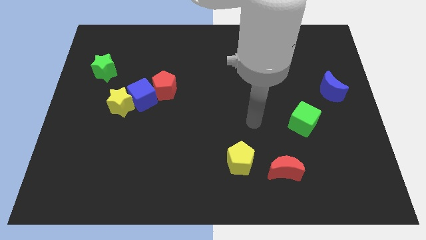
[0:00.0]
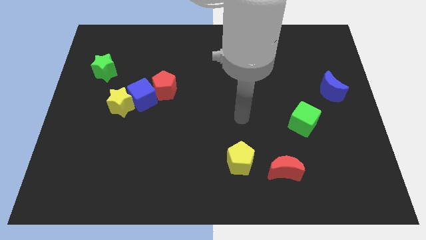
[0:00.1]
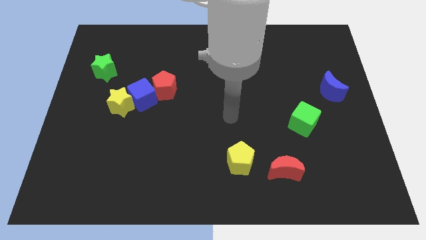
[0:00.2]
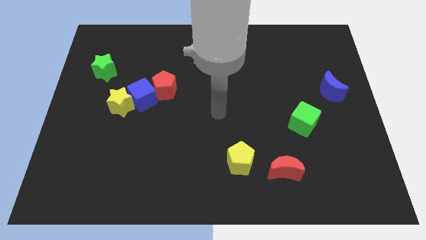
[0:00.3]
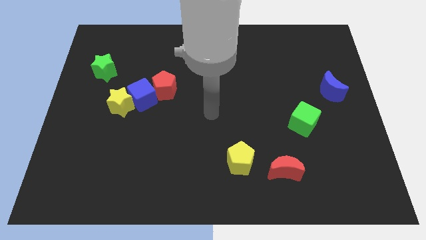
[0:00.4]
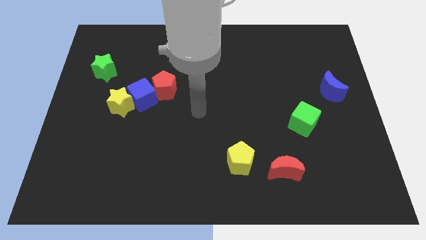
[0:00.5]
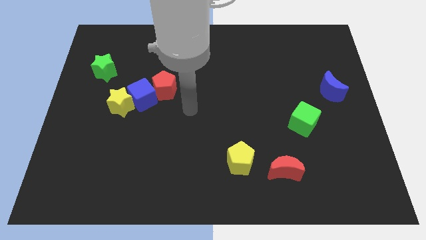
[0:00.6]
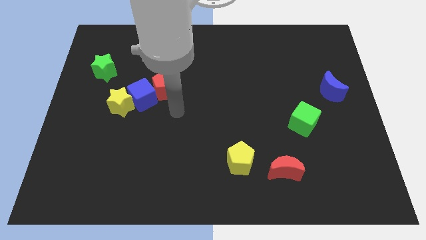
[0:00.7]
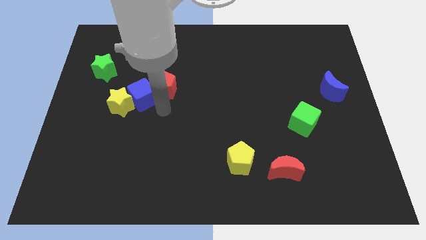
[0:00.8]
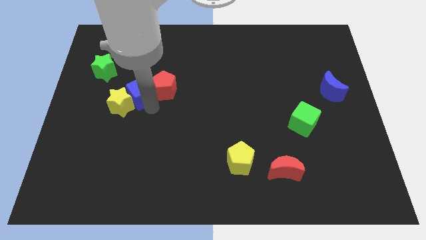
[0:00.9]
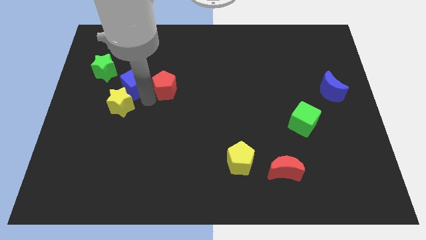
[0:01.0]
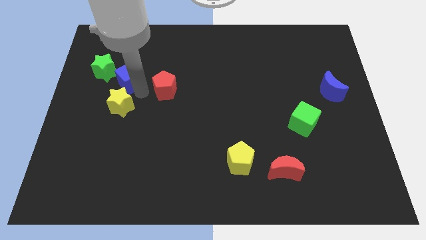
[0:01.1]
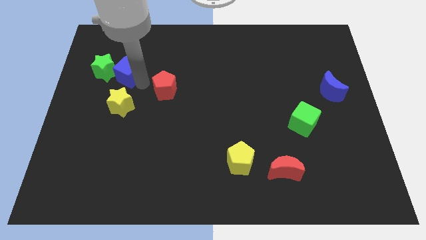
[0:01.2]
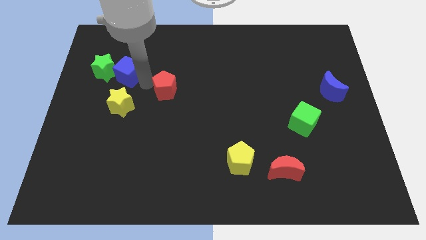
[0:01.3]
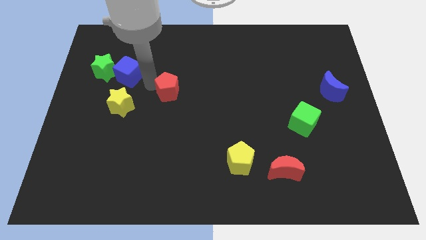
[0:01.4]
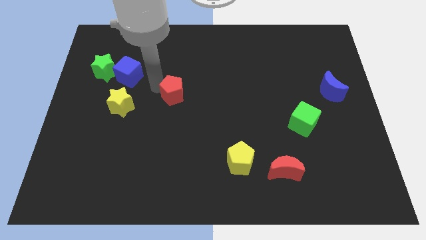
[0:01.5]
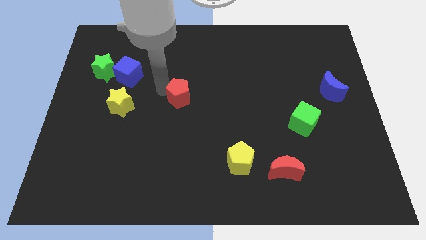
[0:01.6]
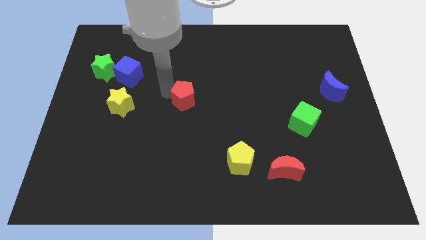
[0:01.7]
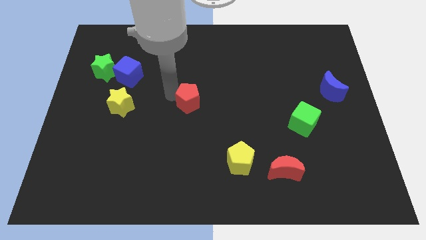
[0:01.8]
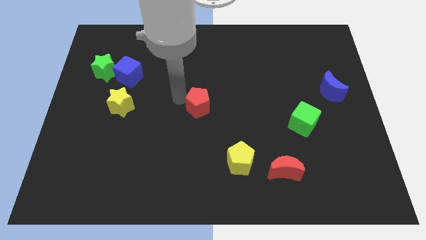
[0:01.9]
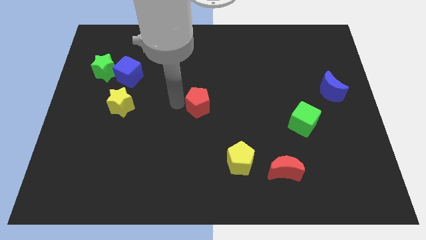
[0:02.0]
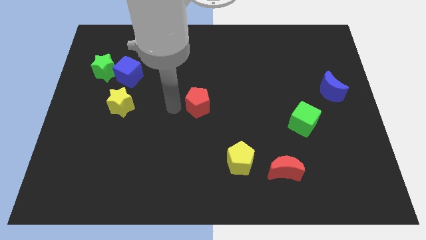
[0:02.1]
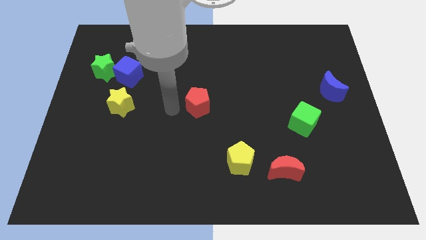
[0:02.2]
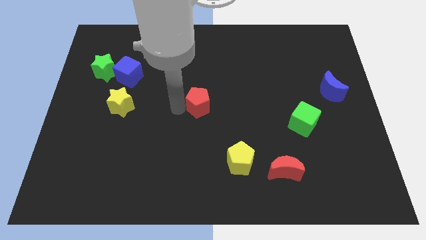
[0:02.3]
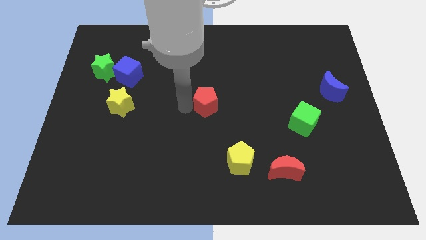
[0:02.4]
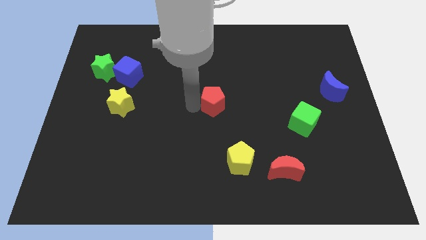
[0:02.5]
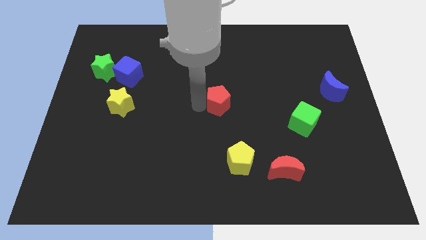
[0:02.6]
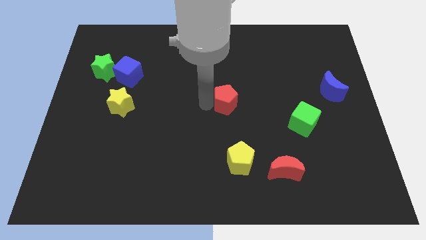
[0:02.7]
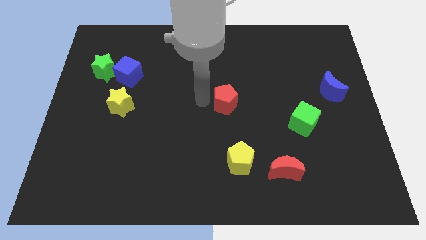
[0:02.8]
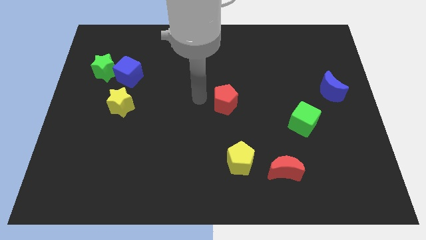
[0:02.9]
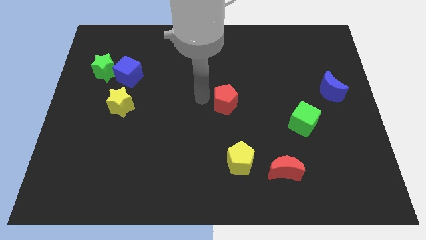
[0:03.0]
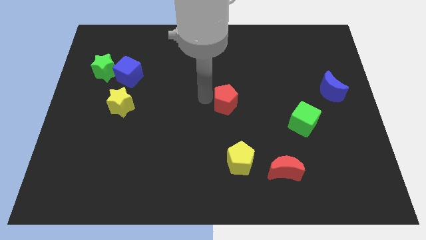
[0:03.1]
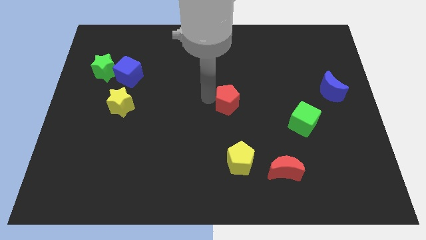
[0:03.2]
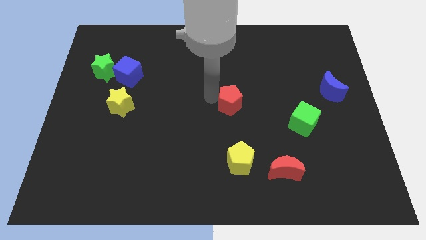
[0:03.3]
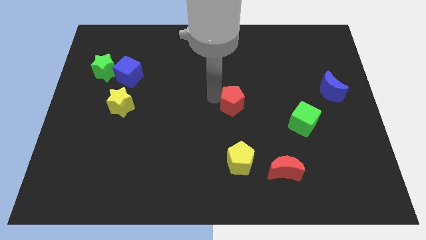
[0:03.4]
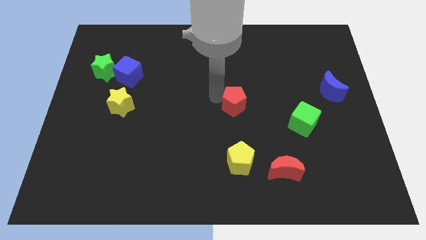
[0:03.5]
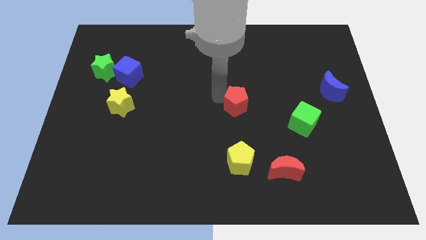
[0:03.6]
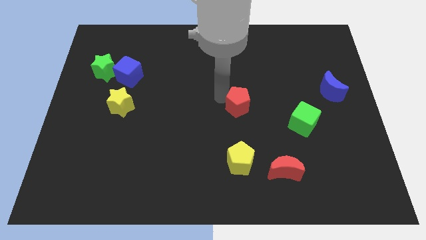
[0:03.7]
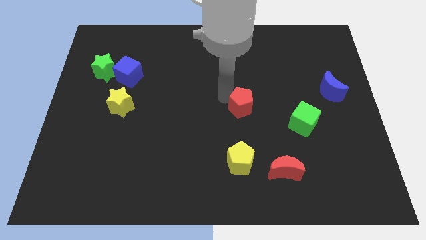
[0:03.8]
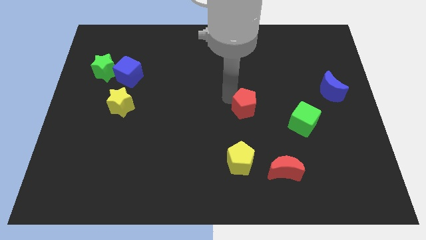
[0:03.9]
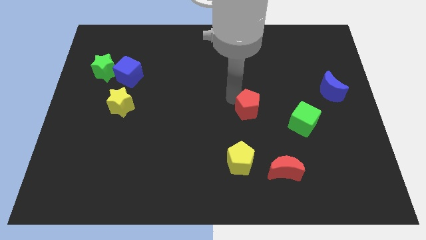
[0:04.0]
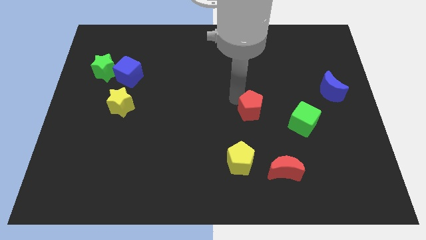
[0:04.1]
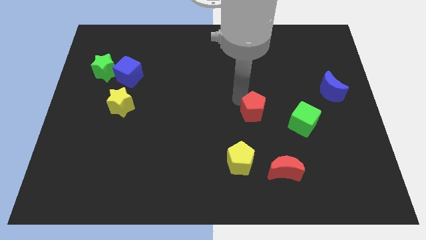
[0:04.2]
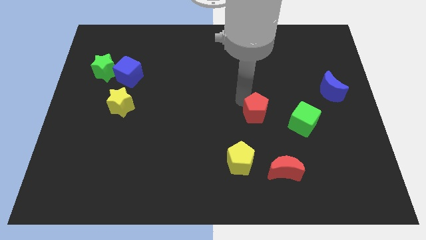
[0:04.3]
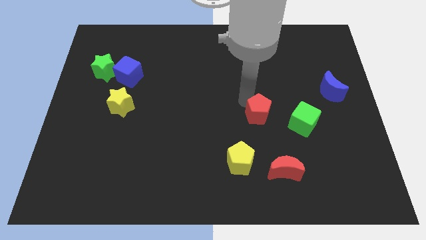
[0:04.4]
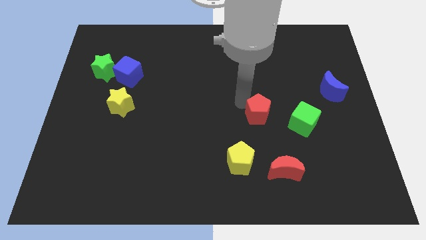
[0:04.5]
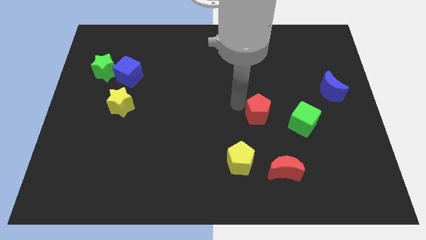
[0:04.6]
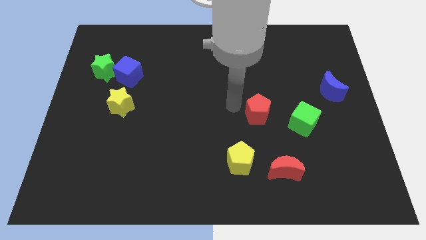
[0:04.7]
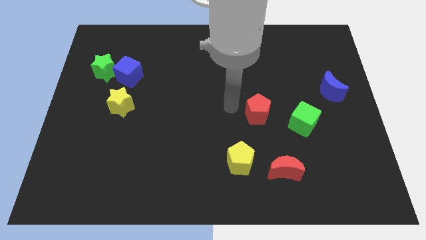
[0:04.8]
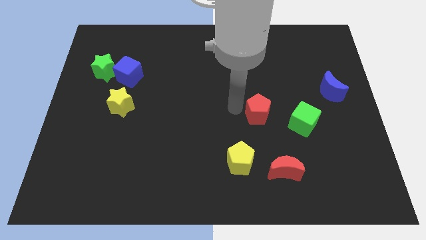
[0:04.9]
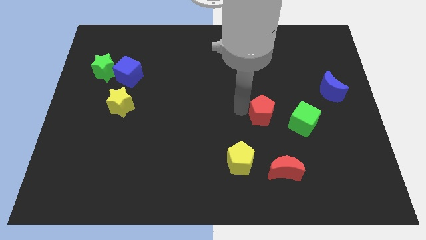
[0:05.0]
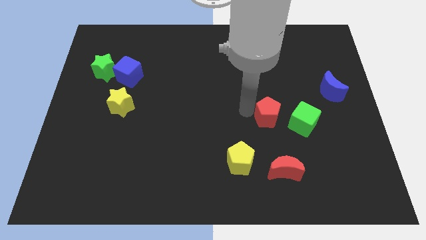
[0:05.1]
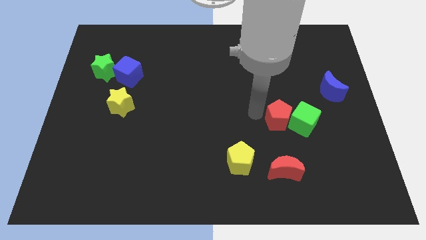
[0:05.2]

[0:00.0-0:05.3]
slide the red pentagon towards the green cube

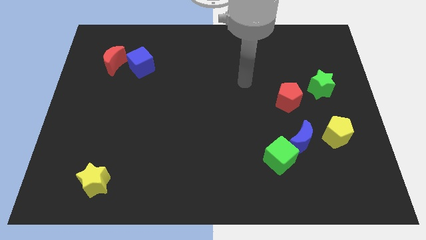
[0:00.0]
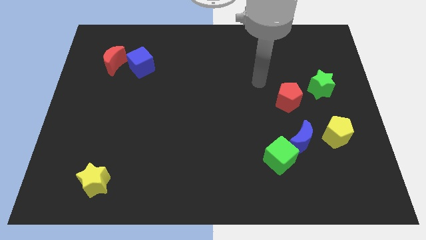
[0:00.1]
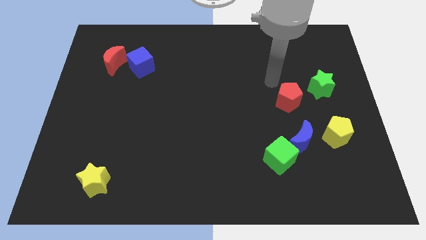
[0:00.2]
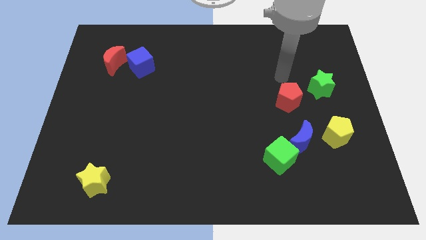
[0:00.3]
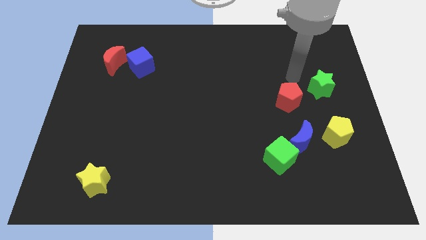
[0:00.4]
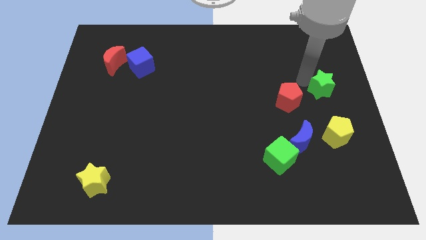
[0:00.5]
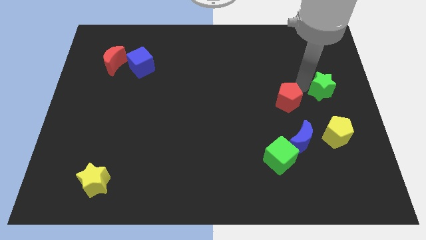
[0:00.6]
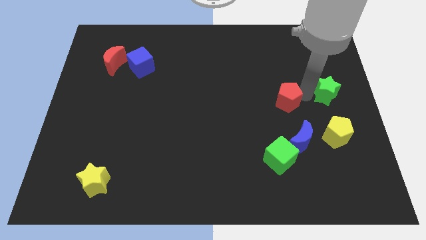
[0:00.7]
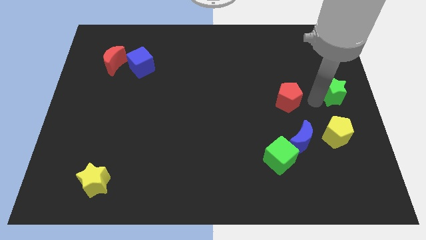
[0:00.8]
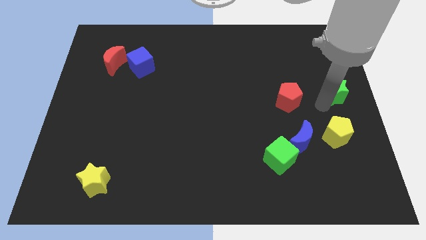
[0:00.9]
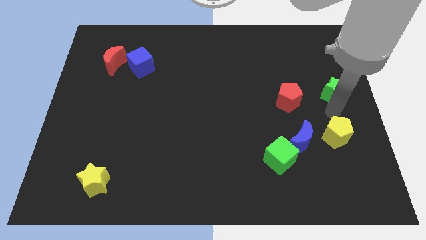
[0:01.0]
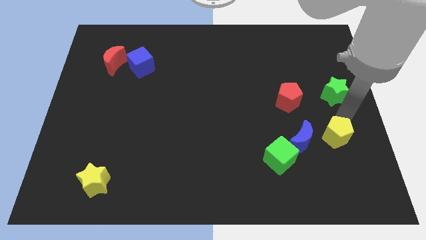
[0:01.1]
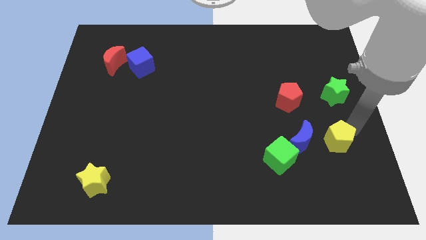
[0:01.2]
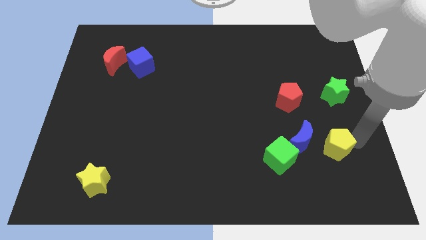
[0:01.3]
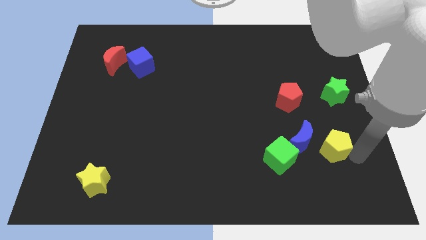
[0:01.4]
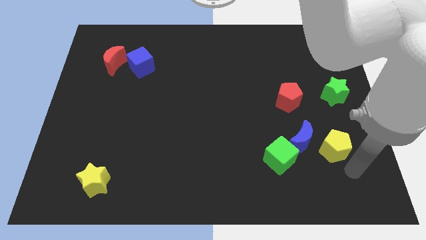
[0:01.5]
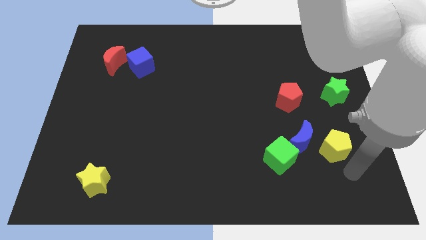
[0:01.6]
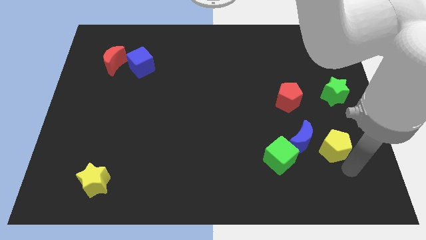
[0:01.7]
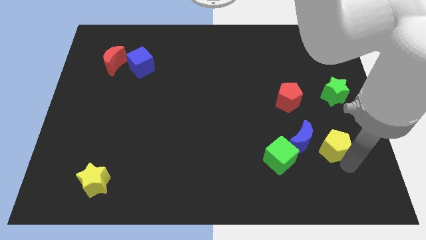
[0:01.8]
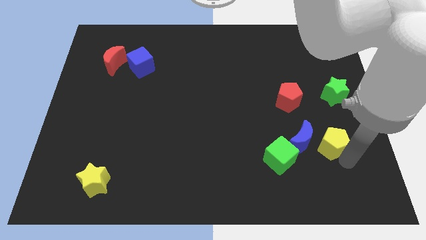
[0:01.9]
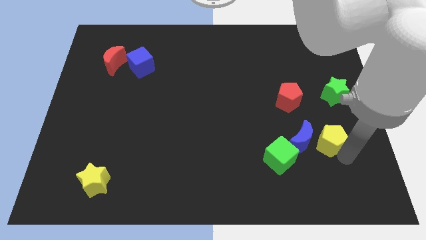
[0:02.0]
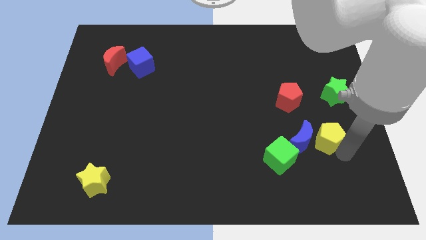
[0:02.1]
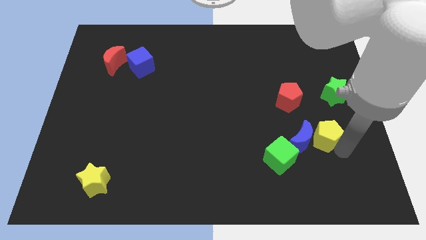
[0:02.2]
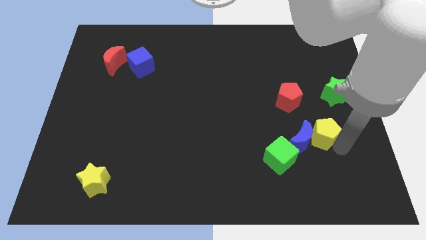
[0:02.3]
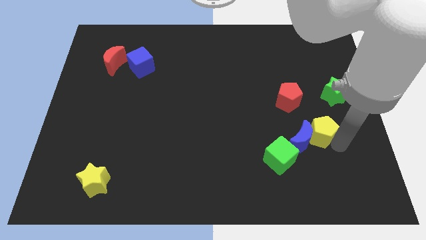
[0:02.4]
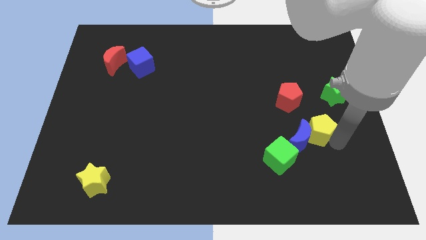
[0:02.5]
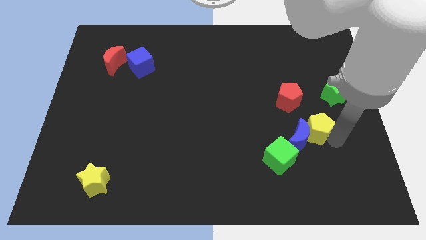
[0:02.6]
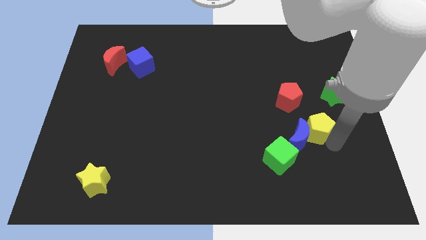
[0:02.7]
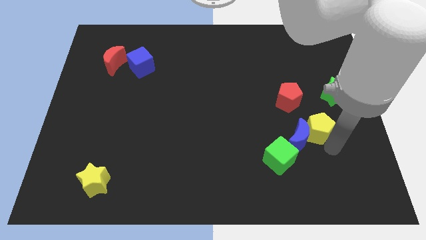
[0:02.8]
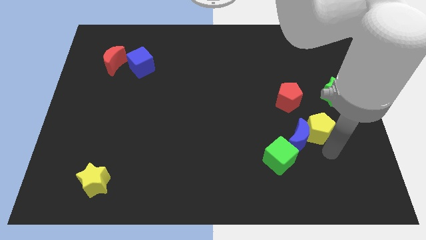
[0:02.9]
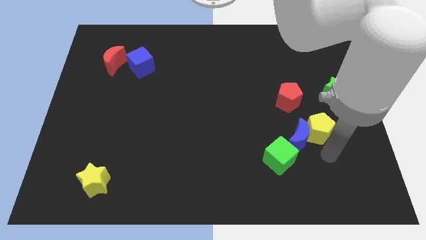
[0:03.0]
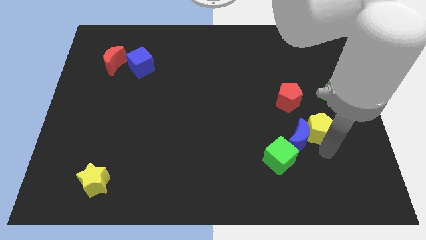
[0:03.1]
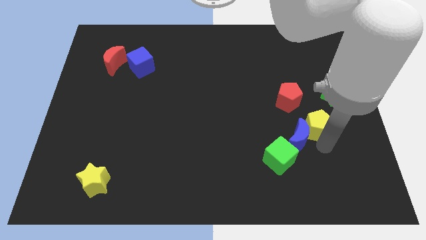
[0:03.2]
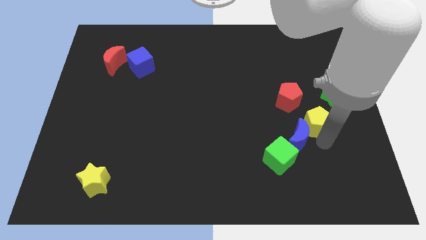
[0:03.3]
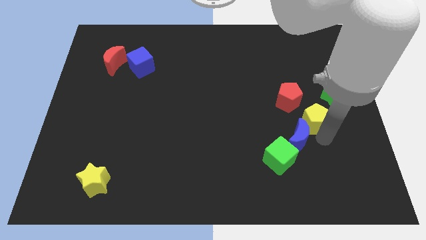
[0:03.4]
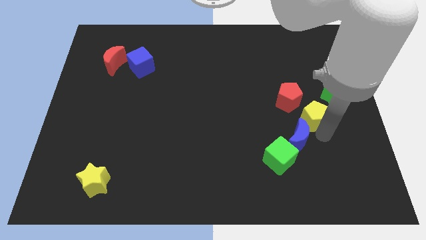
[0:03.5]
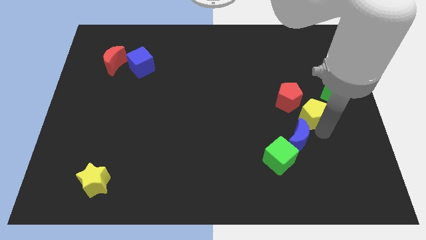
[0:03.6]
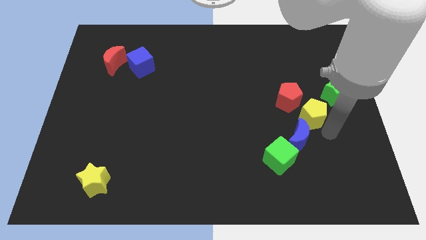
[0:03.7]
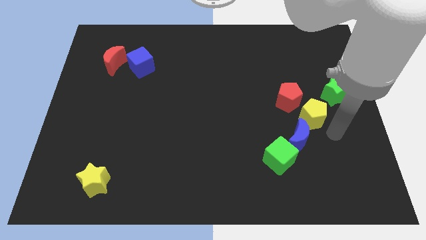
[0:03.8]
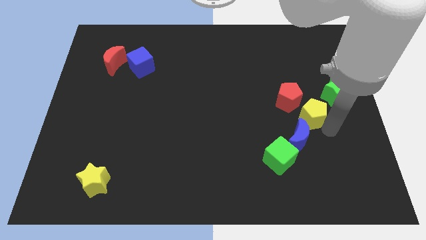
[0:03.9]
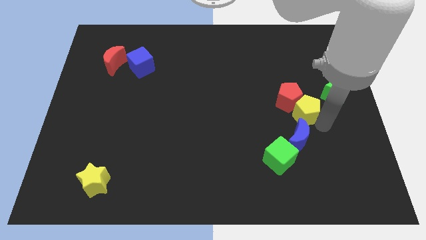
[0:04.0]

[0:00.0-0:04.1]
slide the yellow pentagon towards the red pentagon
